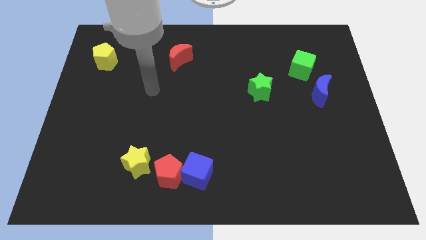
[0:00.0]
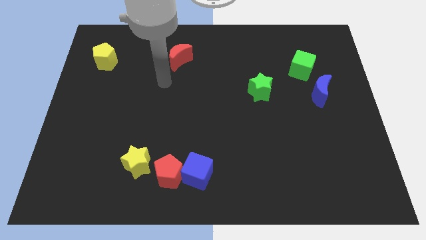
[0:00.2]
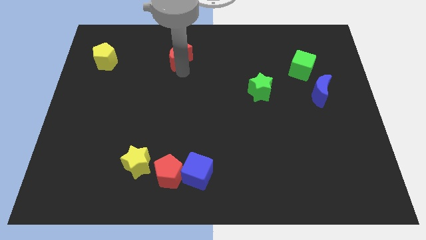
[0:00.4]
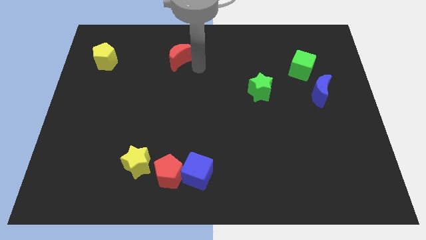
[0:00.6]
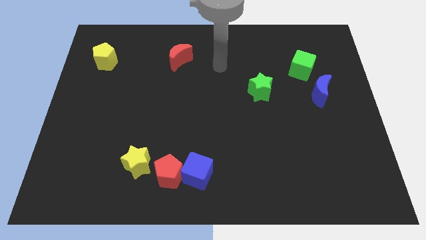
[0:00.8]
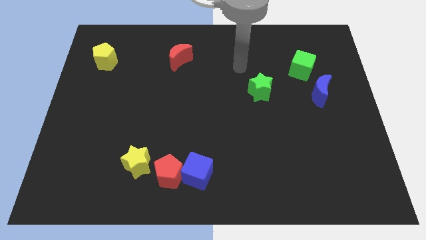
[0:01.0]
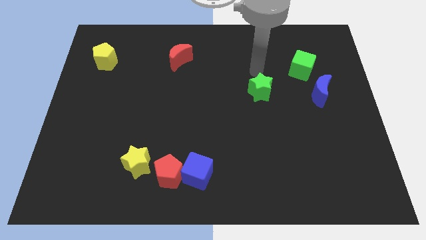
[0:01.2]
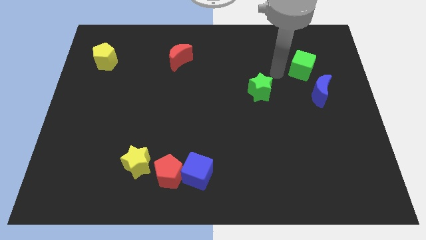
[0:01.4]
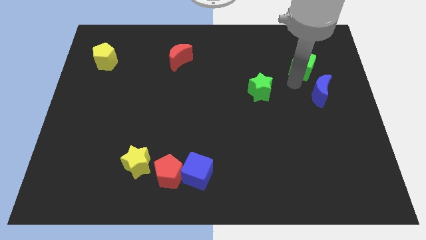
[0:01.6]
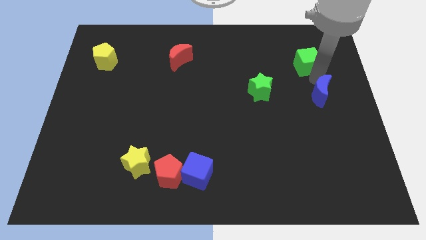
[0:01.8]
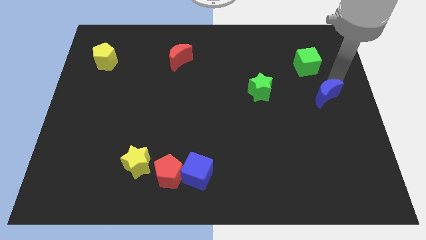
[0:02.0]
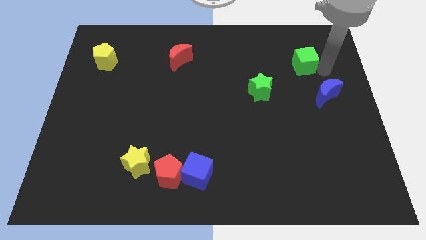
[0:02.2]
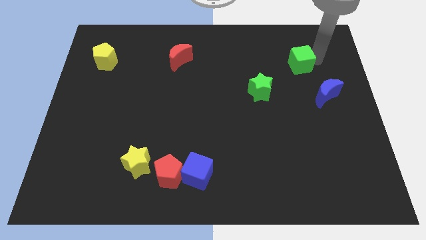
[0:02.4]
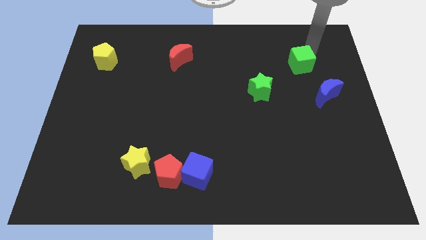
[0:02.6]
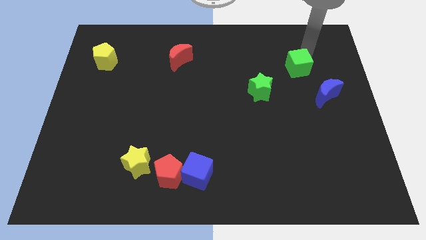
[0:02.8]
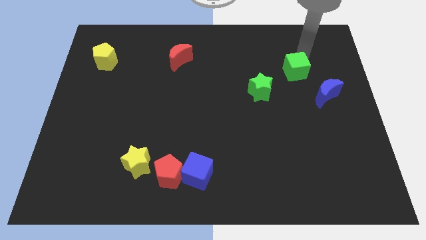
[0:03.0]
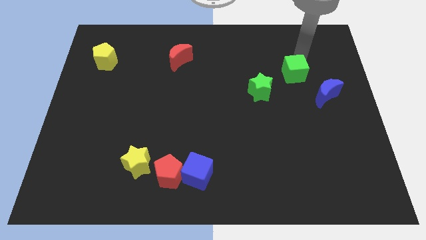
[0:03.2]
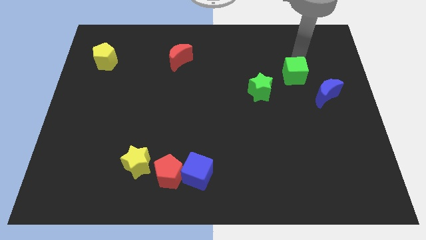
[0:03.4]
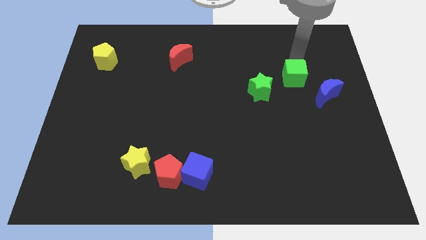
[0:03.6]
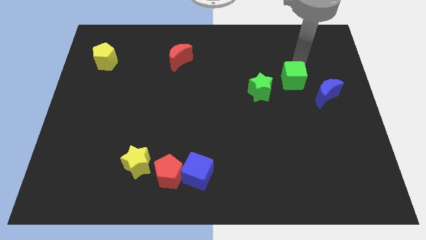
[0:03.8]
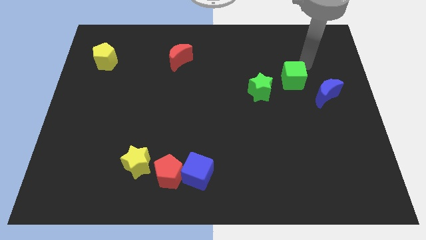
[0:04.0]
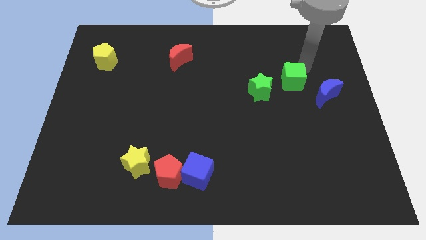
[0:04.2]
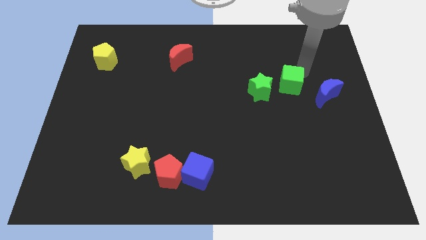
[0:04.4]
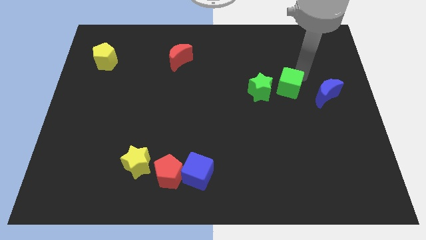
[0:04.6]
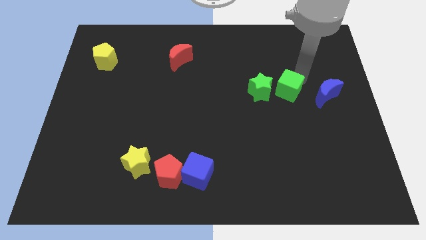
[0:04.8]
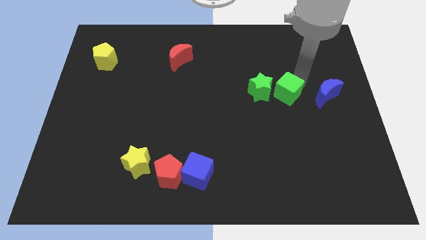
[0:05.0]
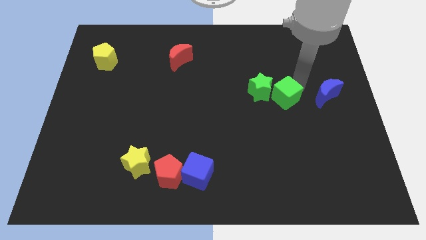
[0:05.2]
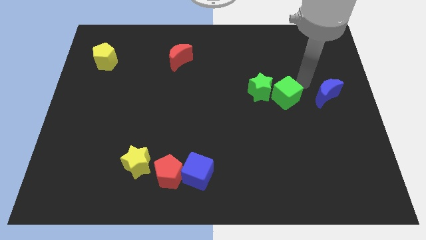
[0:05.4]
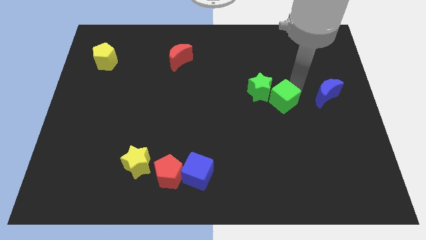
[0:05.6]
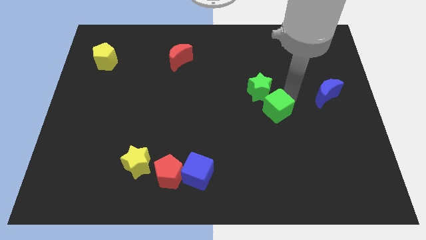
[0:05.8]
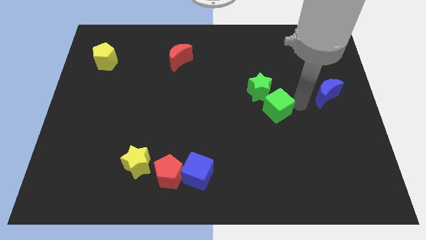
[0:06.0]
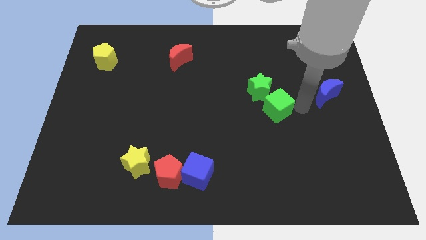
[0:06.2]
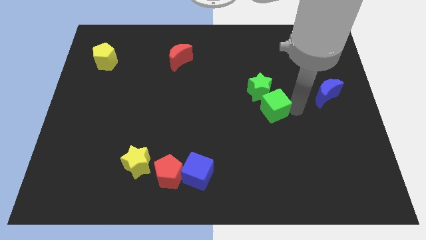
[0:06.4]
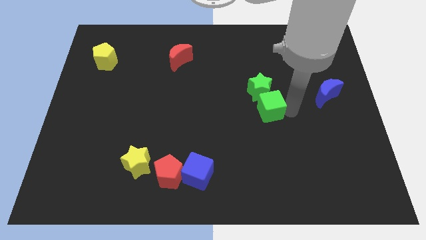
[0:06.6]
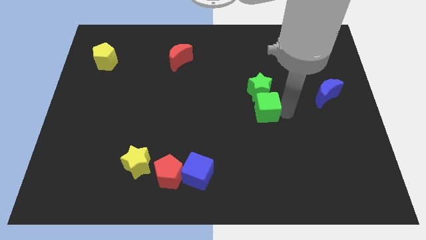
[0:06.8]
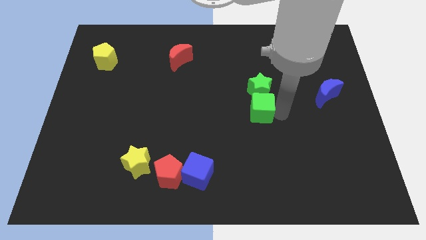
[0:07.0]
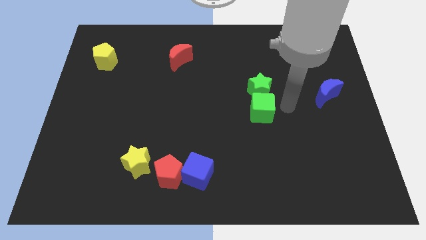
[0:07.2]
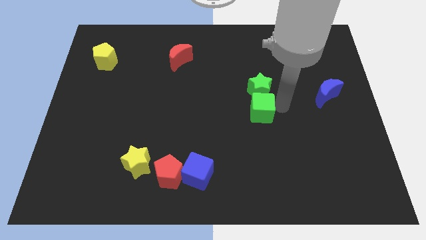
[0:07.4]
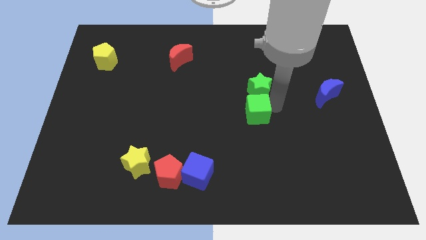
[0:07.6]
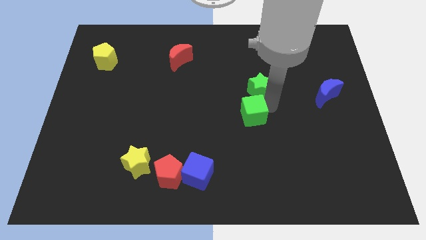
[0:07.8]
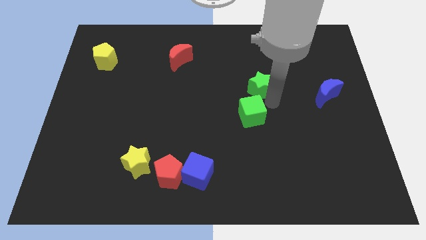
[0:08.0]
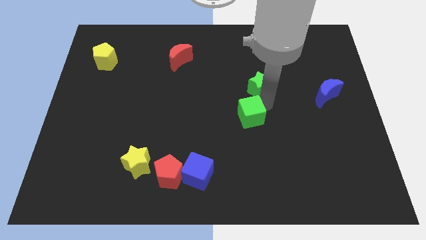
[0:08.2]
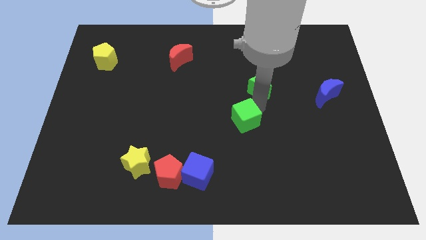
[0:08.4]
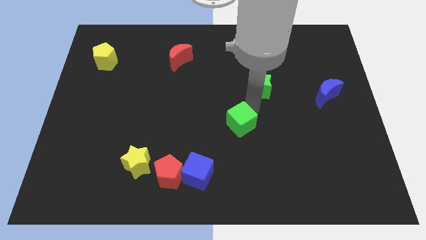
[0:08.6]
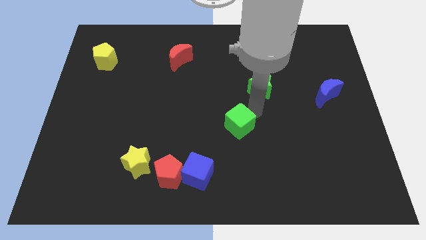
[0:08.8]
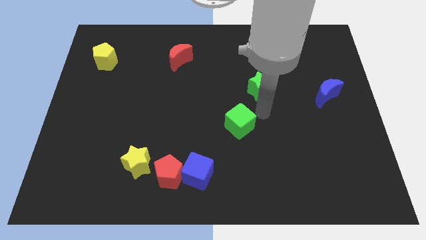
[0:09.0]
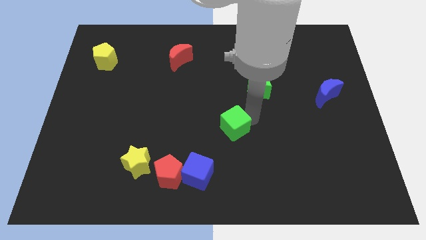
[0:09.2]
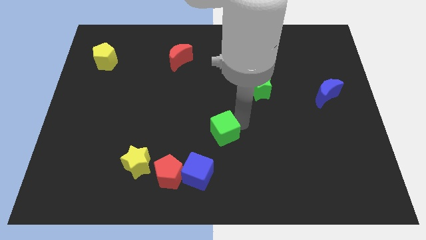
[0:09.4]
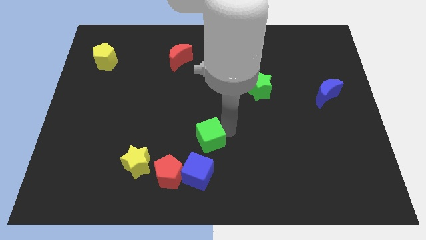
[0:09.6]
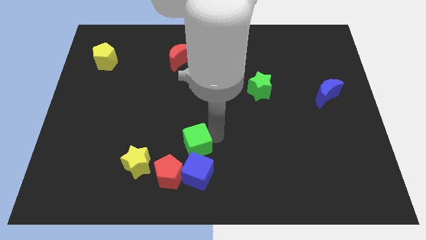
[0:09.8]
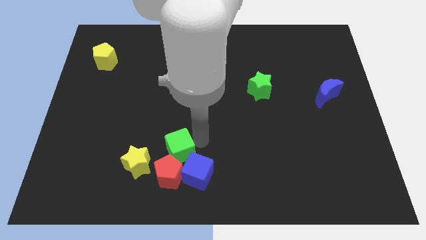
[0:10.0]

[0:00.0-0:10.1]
slide the green cube close to the red pentagon

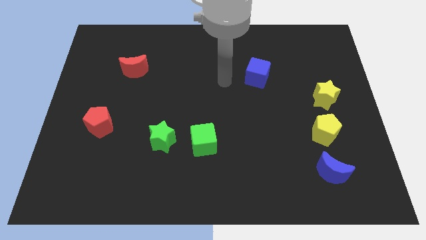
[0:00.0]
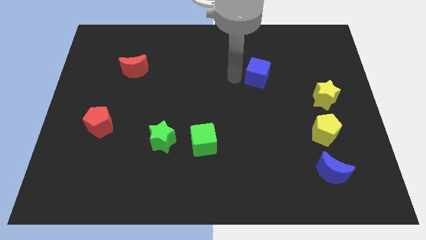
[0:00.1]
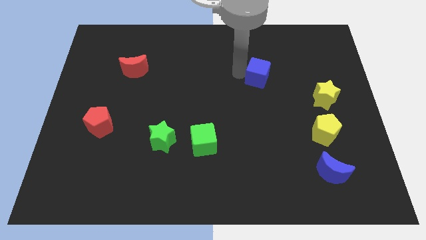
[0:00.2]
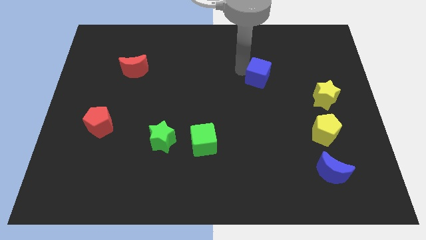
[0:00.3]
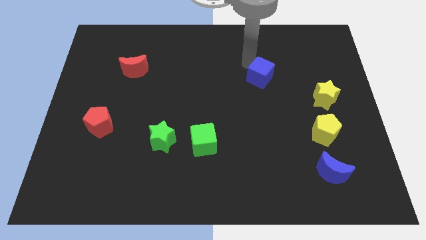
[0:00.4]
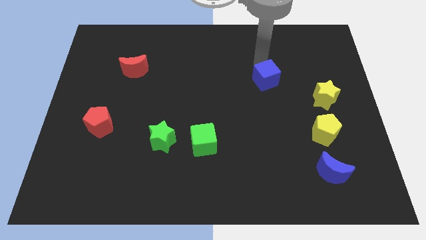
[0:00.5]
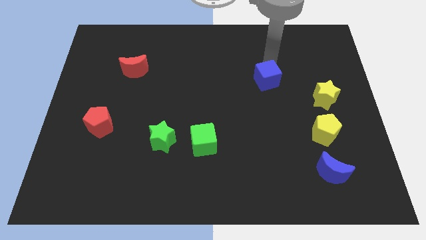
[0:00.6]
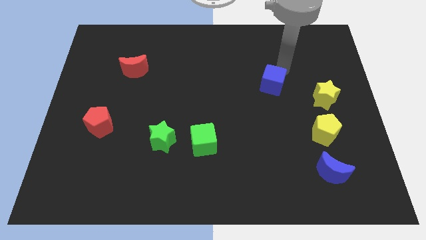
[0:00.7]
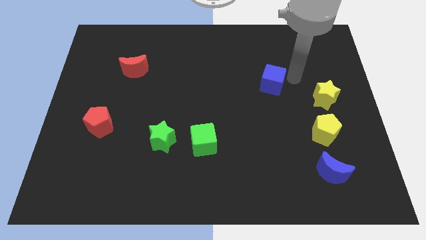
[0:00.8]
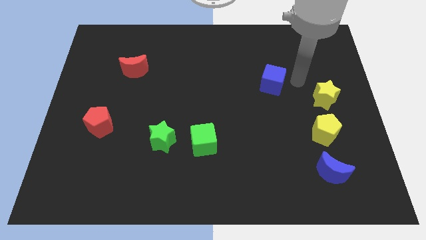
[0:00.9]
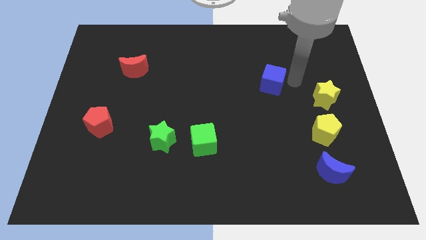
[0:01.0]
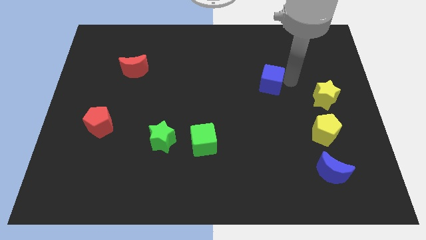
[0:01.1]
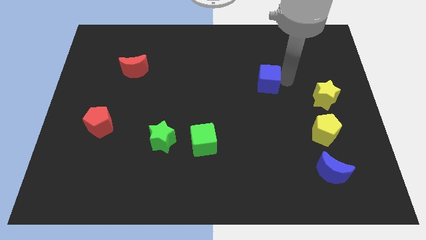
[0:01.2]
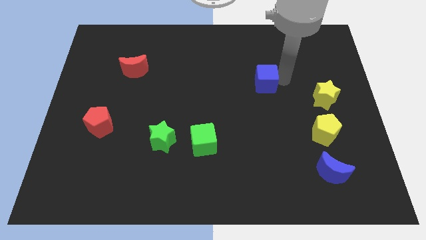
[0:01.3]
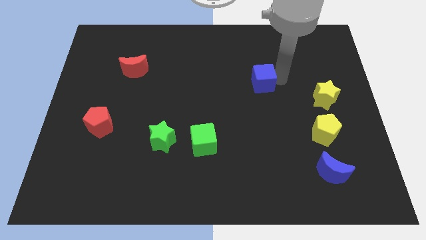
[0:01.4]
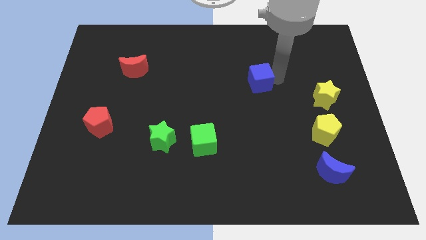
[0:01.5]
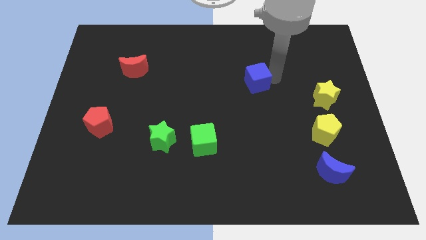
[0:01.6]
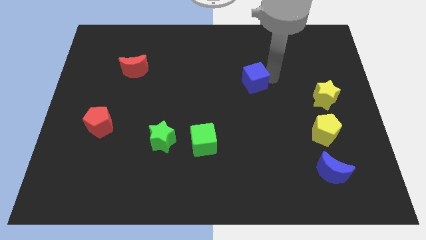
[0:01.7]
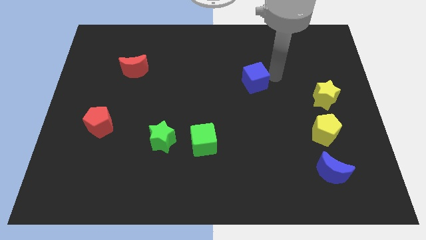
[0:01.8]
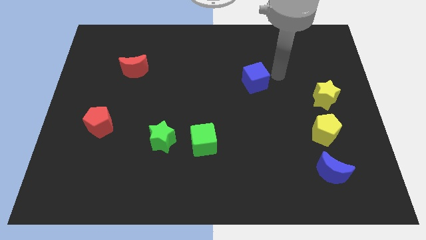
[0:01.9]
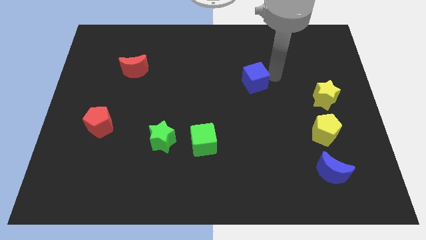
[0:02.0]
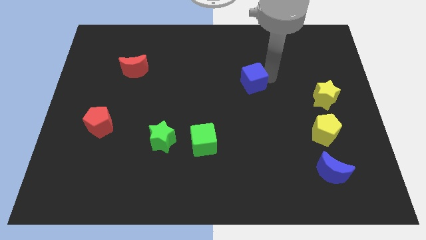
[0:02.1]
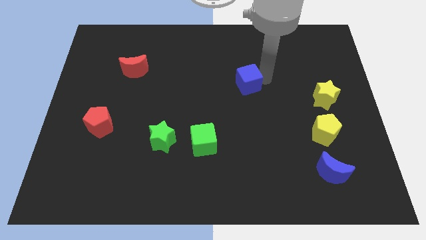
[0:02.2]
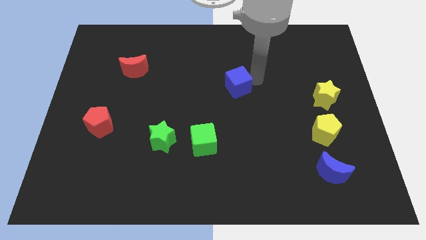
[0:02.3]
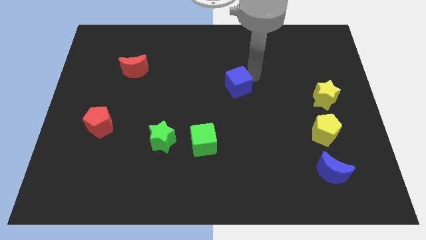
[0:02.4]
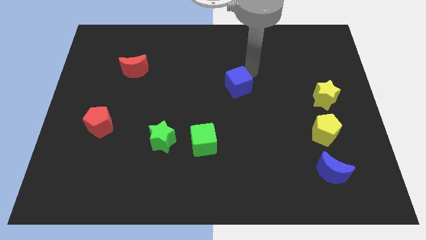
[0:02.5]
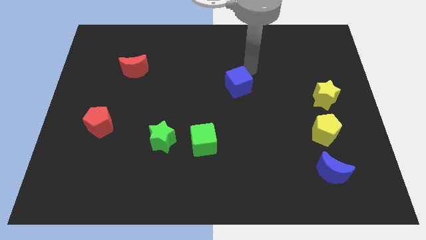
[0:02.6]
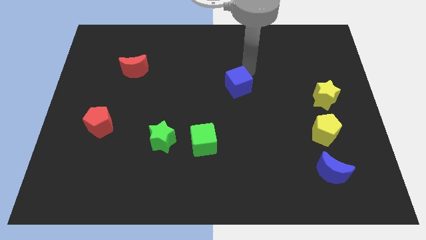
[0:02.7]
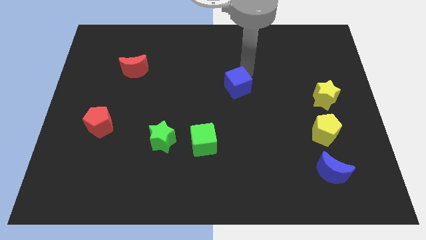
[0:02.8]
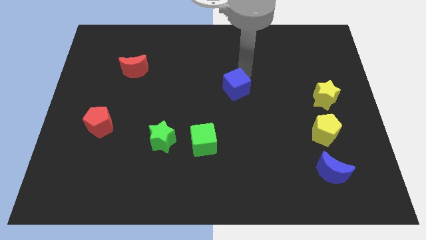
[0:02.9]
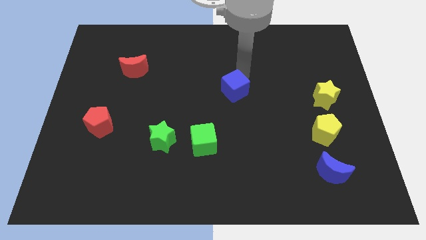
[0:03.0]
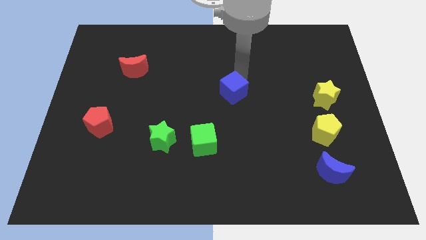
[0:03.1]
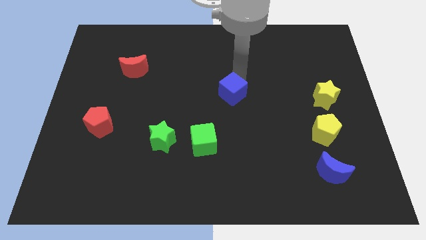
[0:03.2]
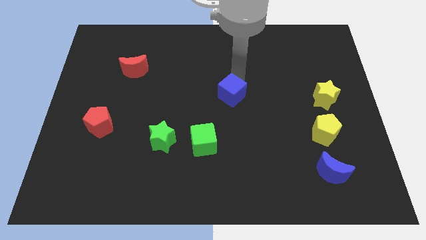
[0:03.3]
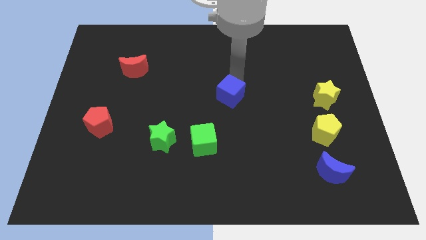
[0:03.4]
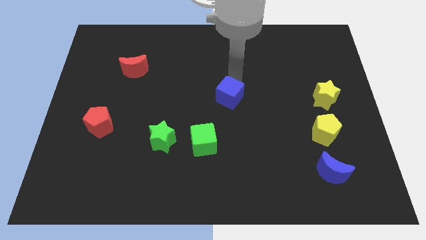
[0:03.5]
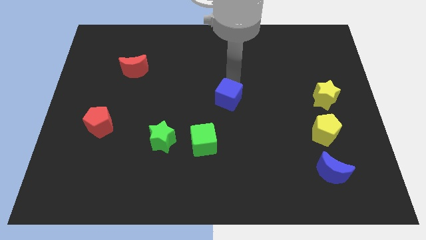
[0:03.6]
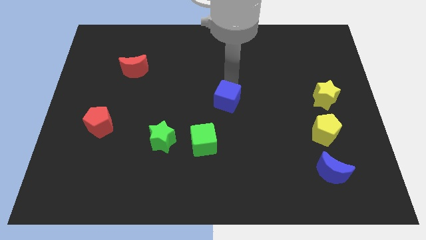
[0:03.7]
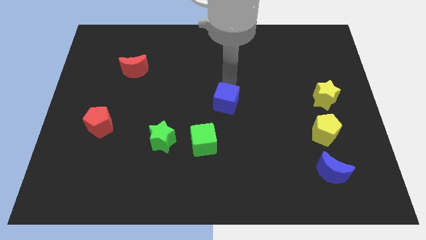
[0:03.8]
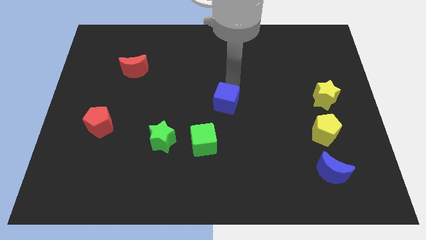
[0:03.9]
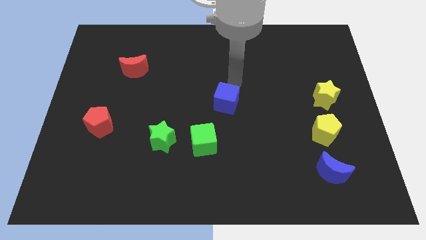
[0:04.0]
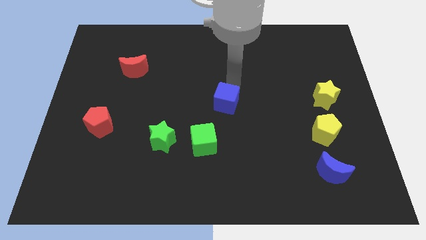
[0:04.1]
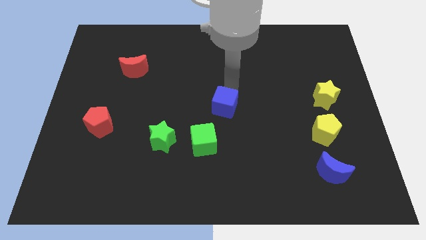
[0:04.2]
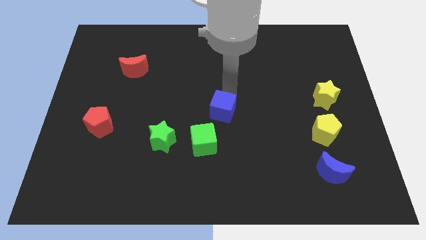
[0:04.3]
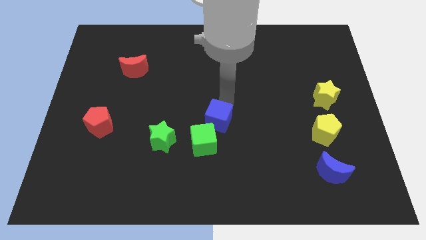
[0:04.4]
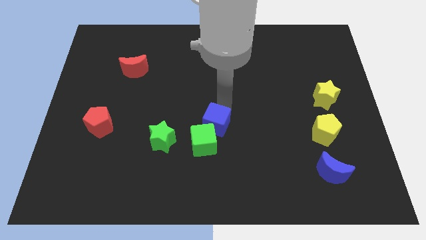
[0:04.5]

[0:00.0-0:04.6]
slide the blue cube towards the green cube
